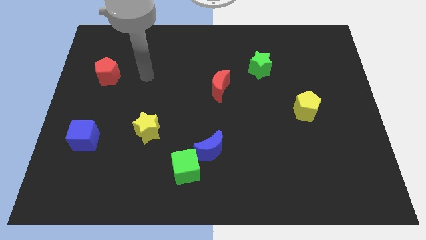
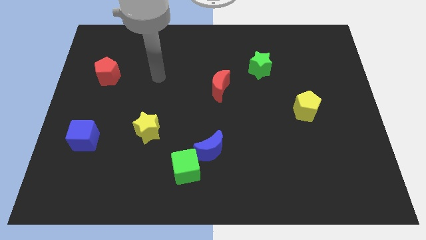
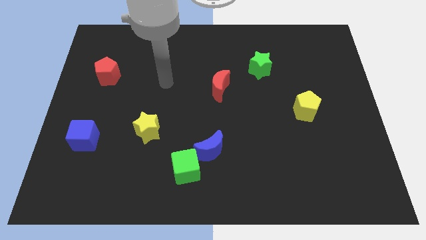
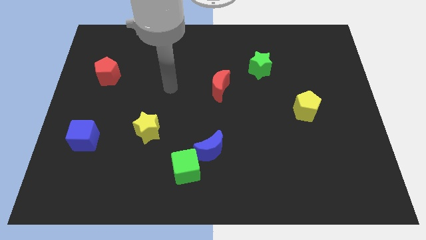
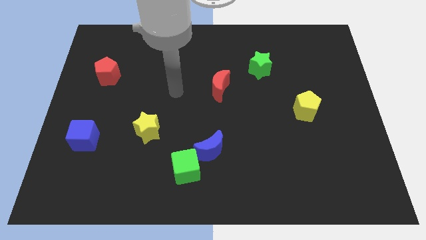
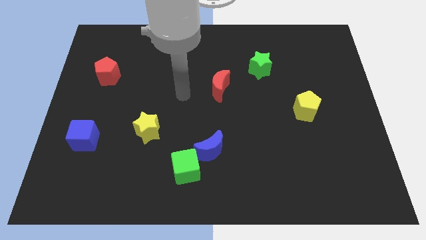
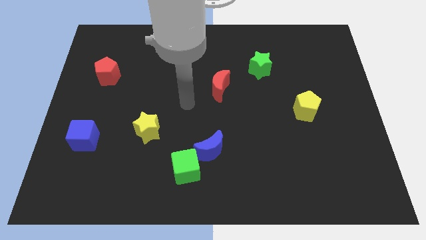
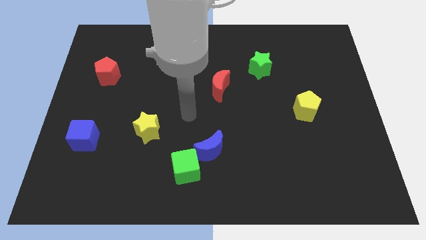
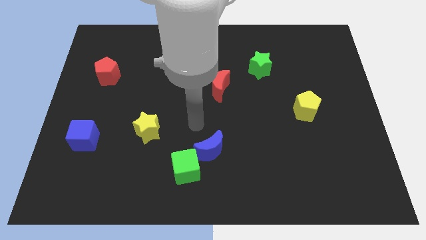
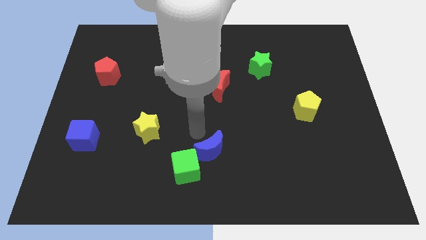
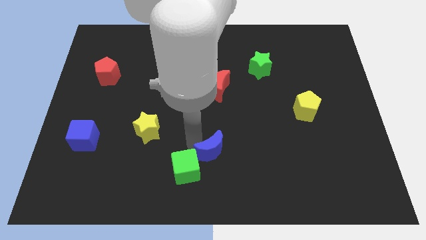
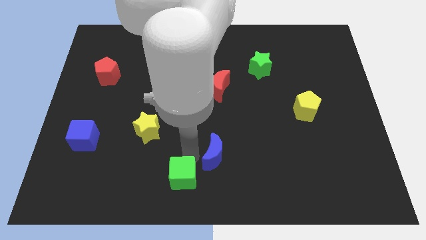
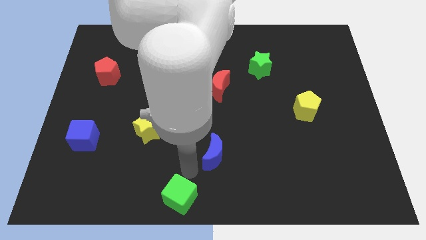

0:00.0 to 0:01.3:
move the blue moon away from the green cube

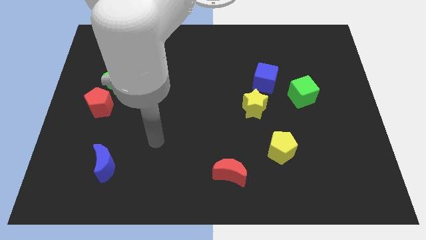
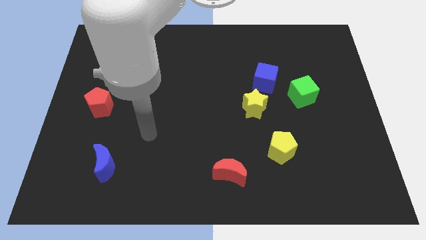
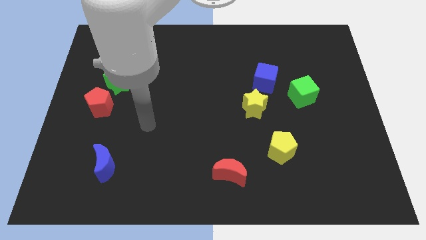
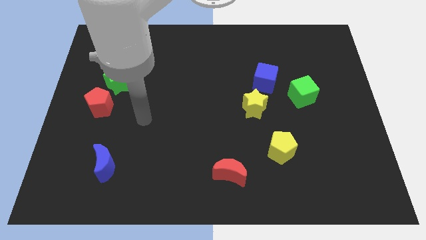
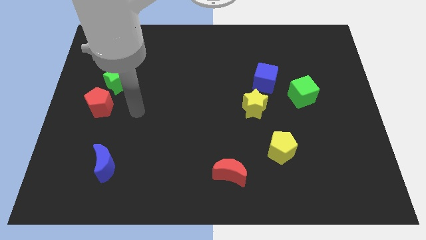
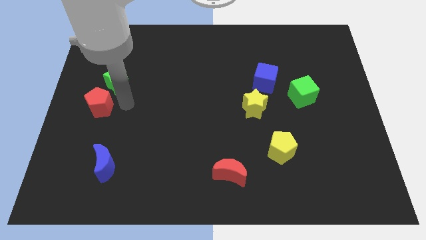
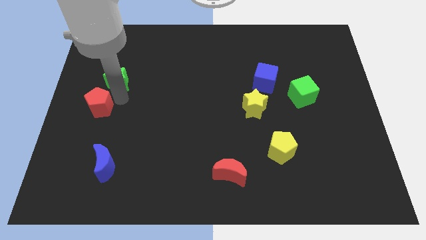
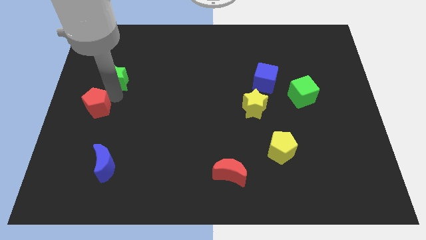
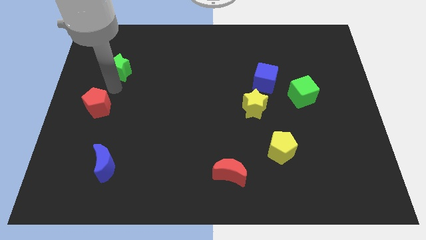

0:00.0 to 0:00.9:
pull the red pentagon apart from the green star

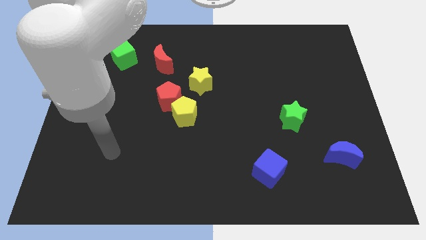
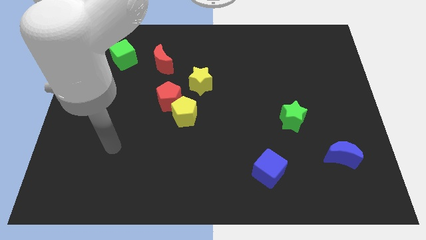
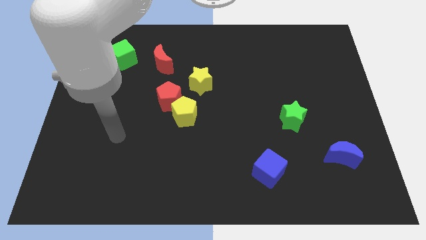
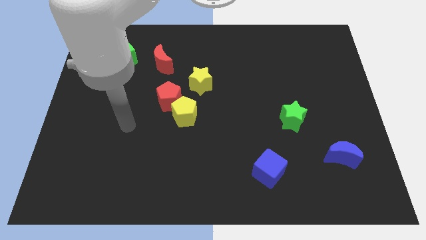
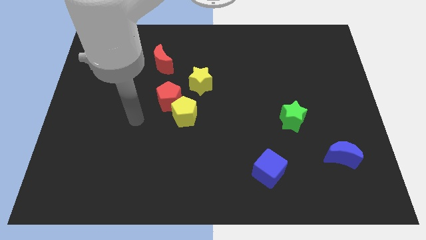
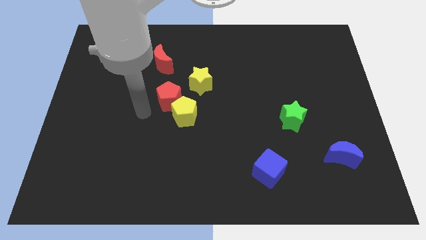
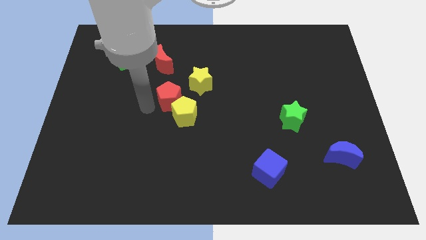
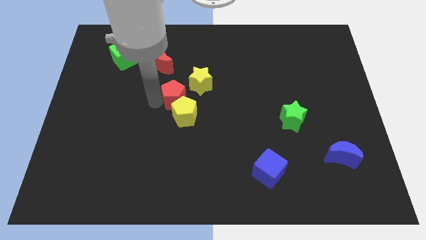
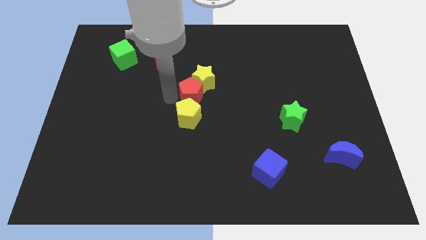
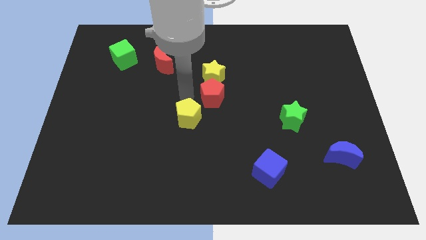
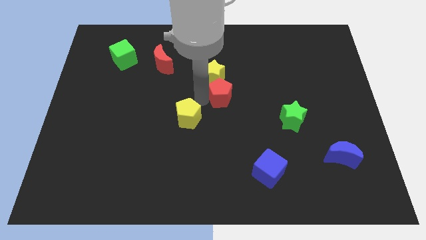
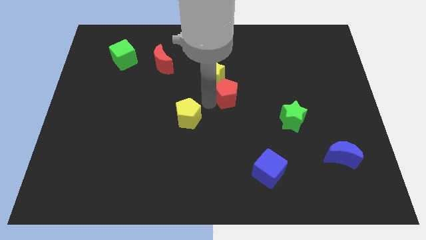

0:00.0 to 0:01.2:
move the yellow pentagon away from the red pentagon

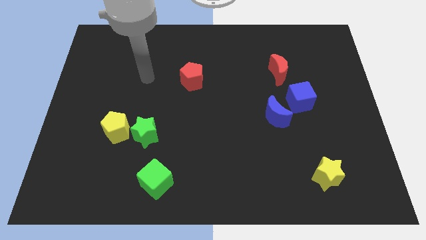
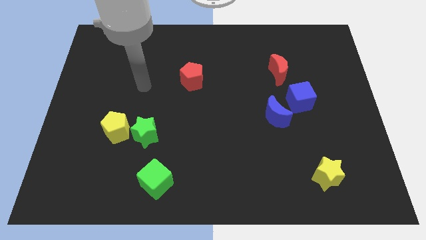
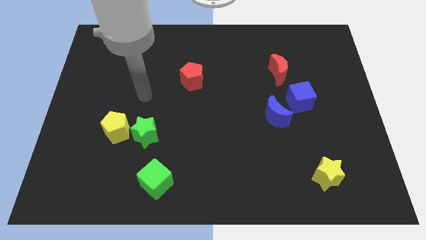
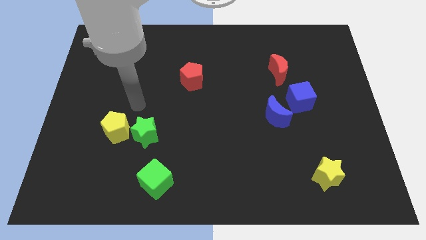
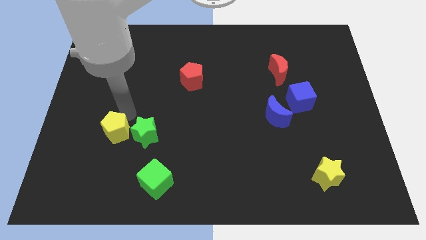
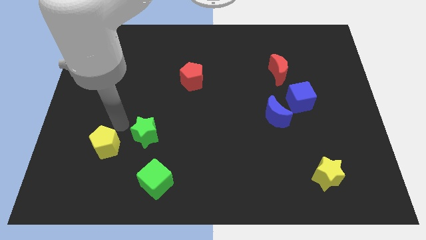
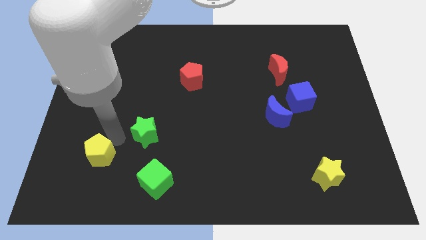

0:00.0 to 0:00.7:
separate the green star from the yellow pentagon

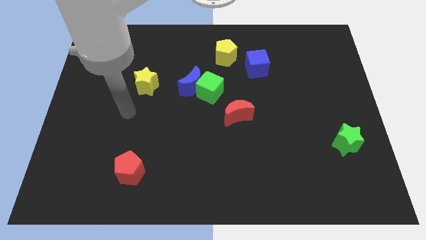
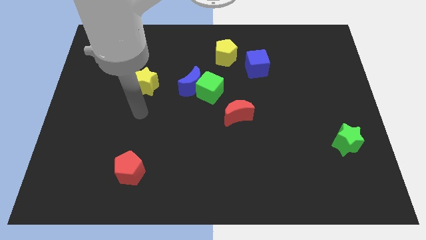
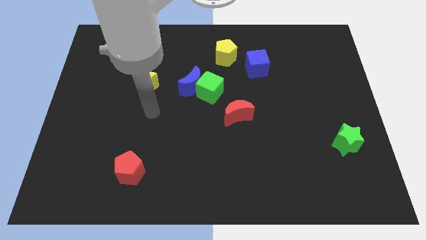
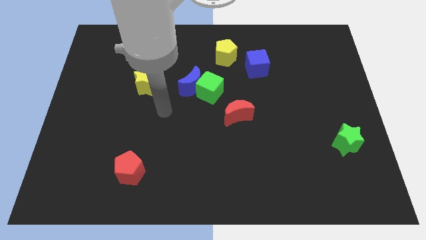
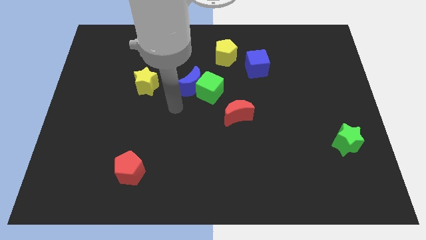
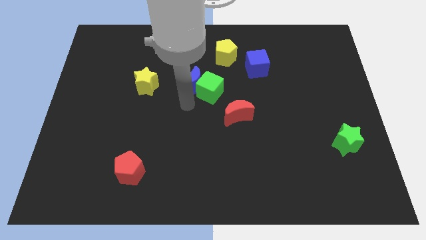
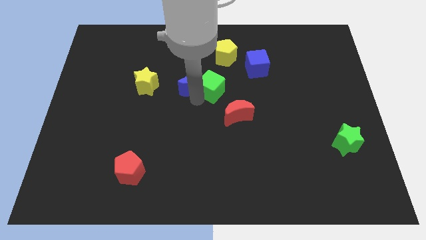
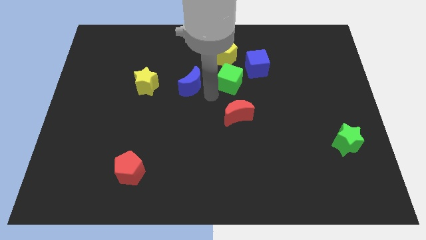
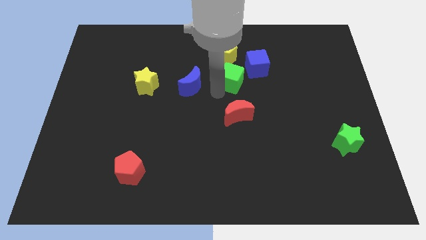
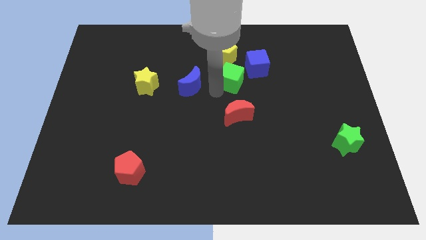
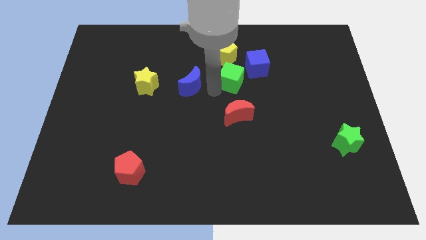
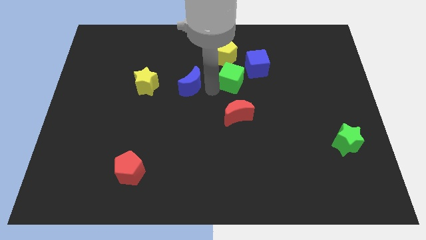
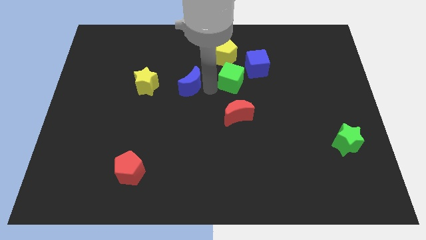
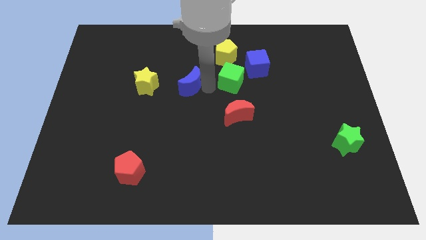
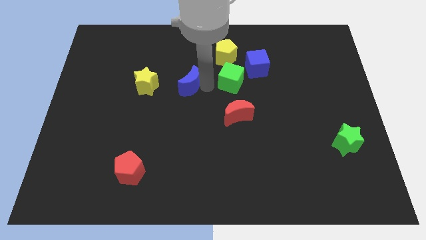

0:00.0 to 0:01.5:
pull the blue moon apart from the green cube

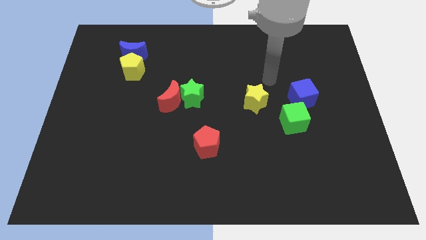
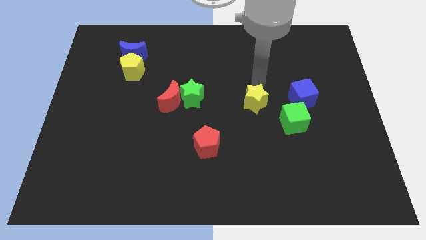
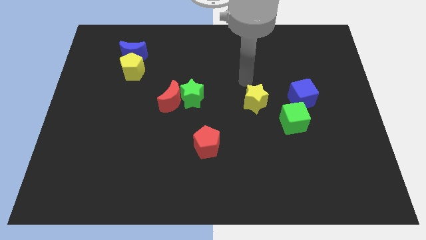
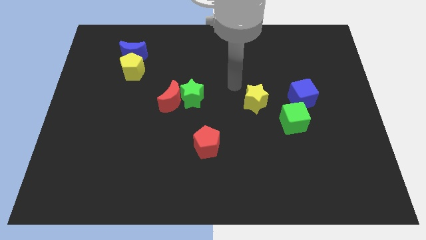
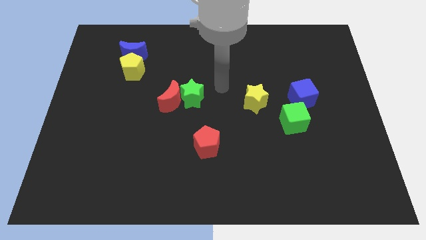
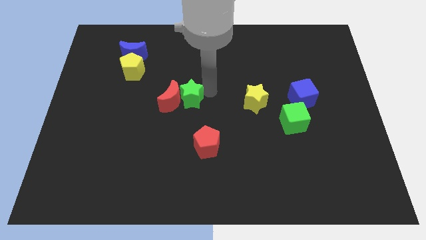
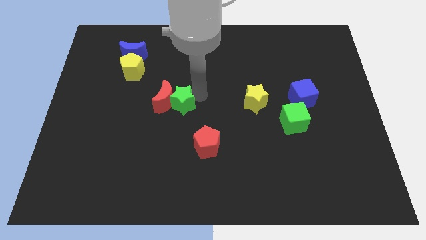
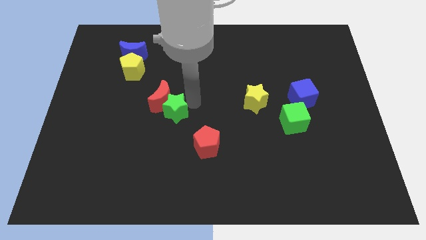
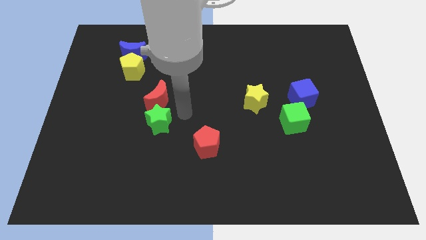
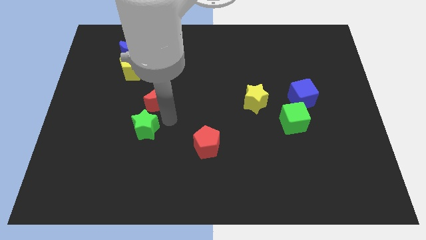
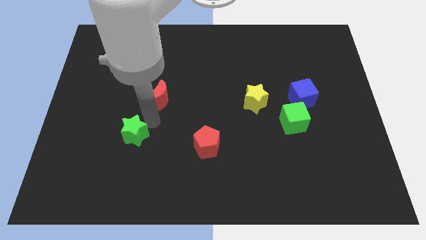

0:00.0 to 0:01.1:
separate the red moon from the green star

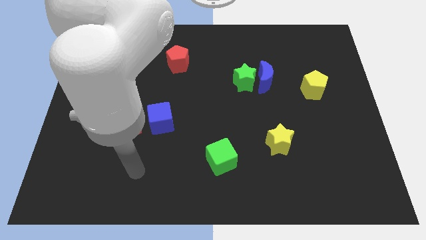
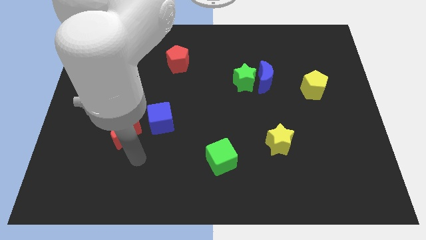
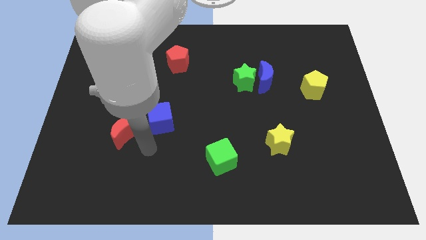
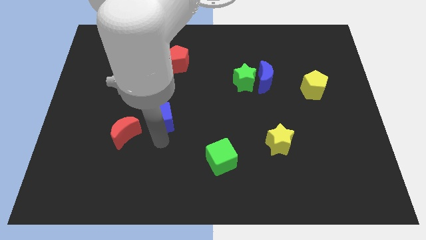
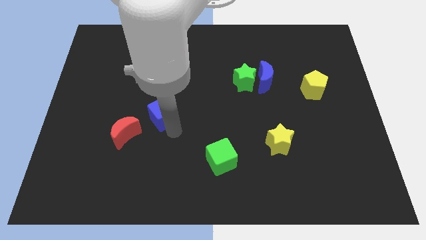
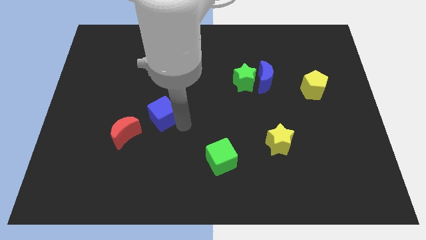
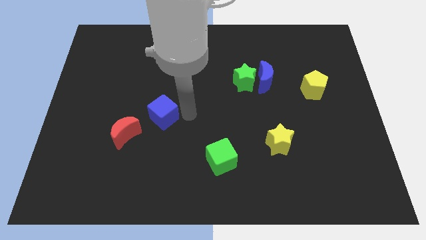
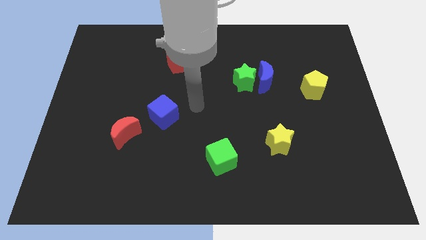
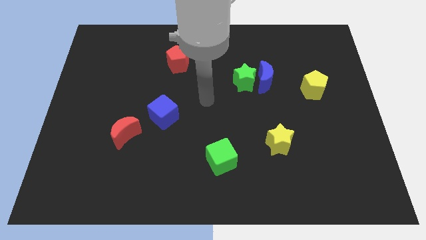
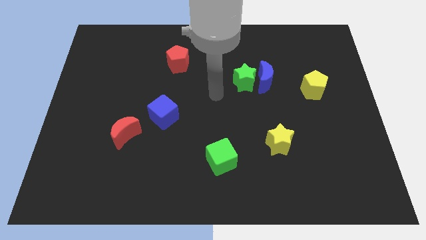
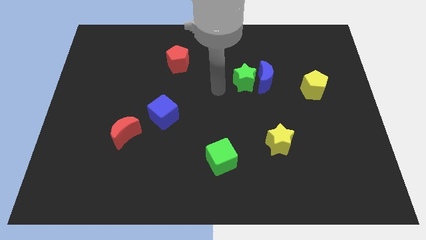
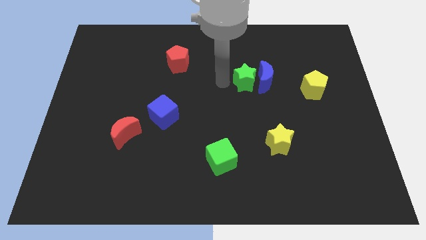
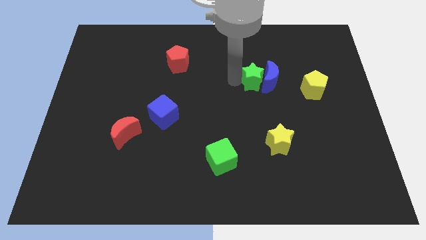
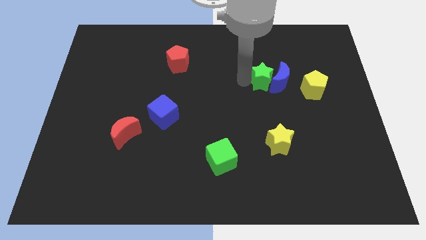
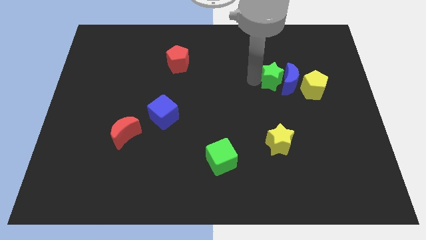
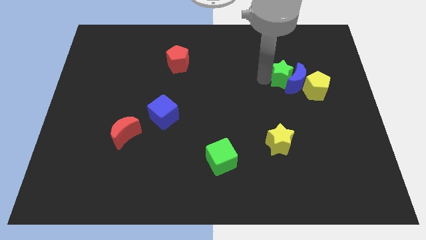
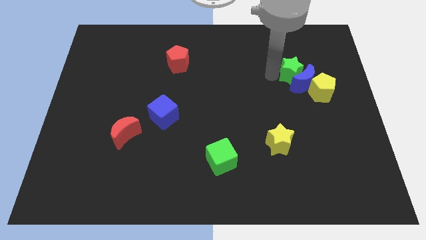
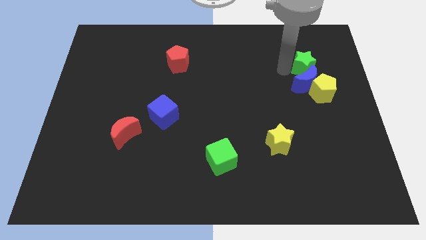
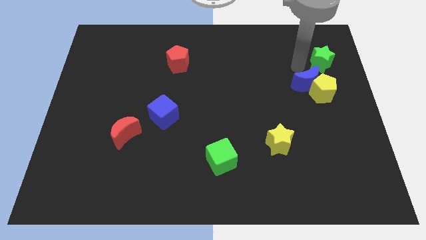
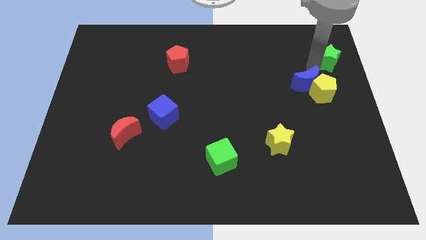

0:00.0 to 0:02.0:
pull the blue moon apart from the green star

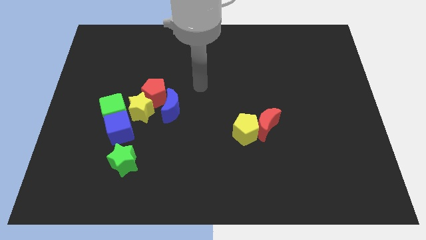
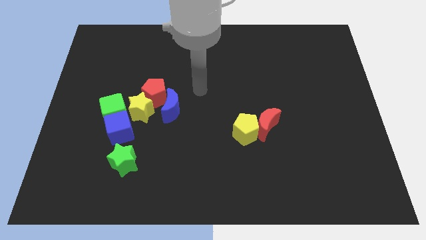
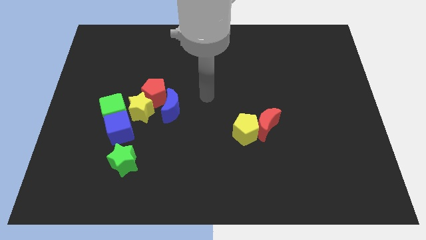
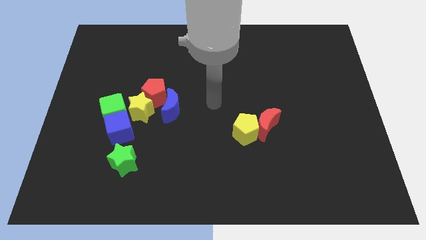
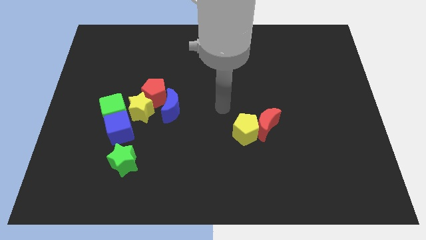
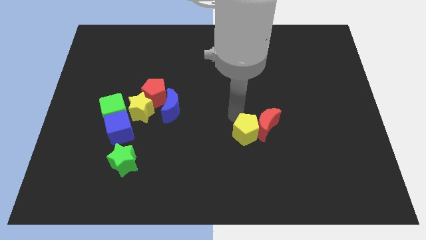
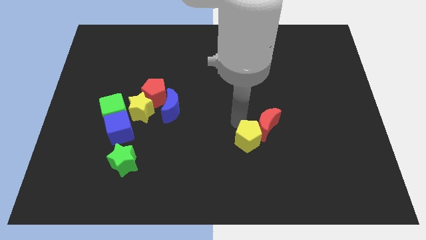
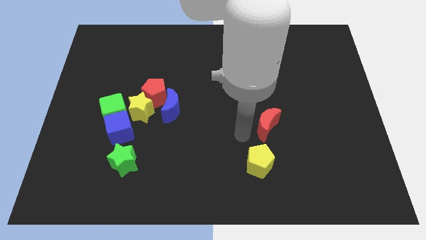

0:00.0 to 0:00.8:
separate the red moon from the yellow pentagon
